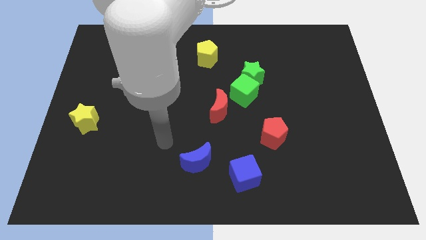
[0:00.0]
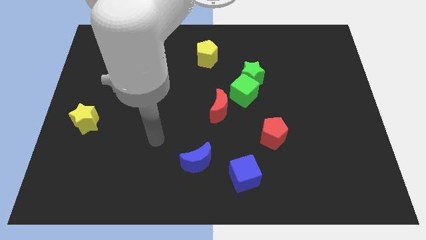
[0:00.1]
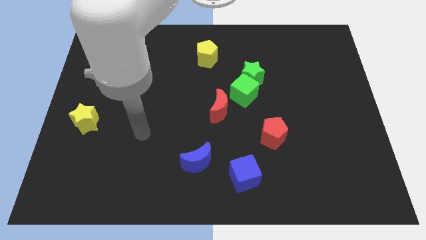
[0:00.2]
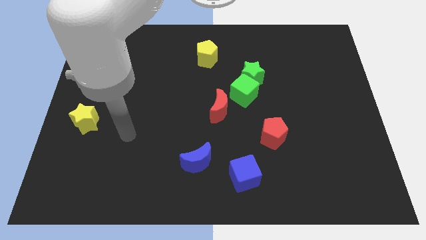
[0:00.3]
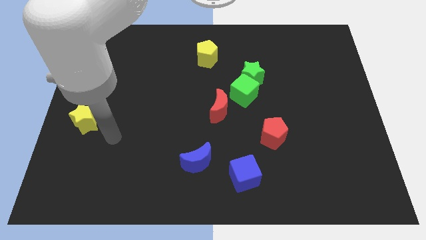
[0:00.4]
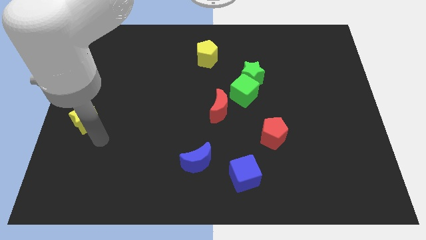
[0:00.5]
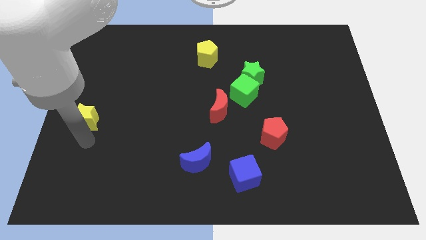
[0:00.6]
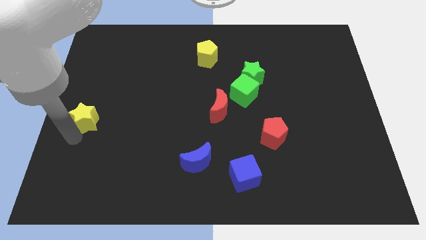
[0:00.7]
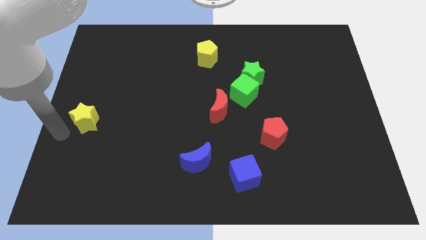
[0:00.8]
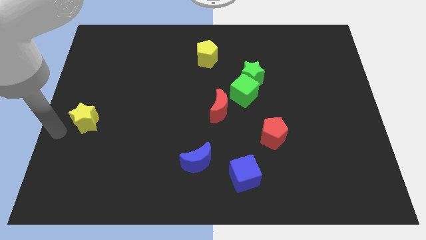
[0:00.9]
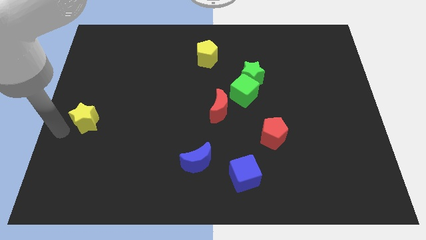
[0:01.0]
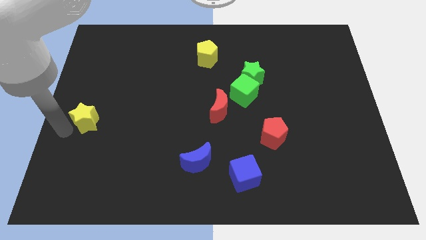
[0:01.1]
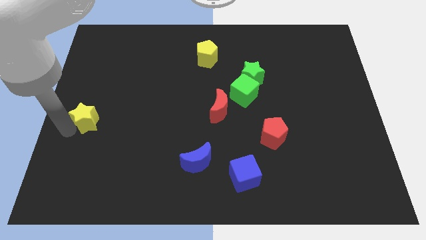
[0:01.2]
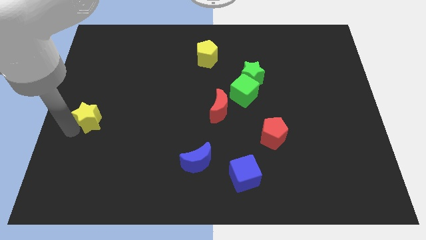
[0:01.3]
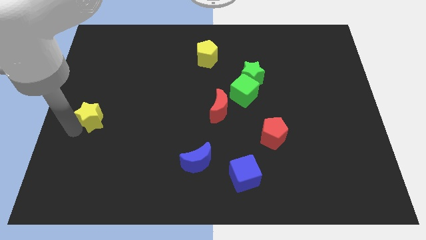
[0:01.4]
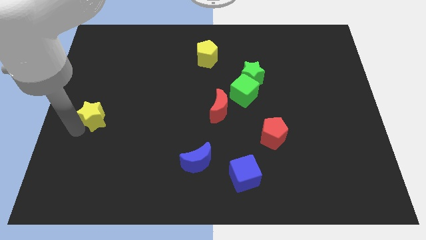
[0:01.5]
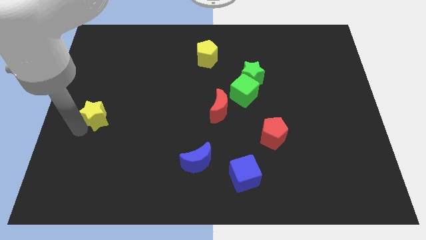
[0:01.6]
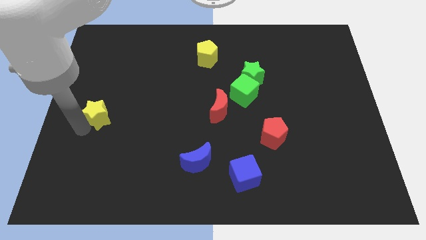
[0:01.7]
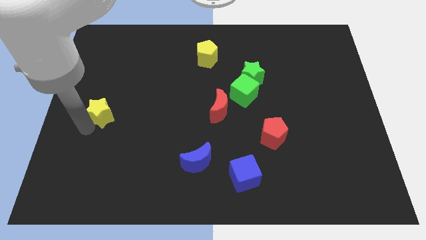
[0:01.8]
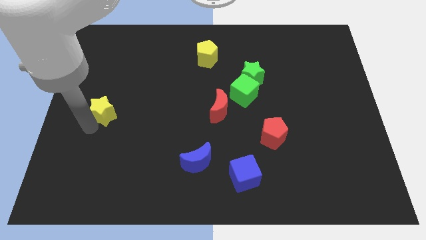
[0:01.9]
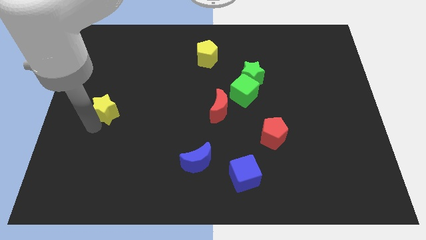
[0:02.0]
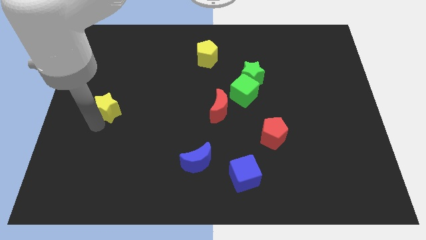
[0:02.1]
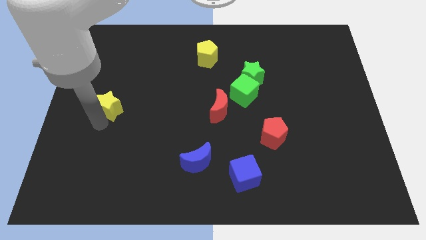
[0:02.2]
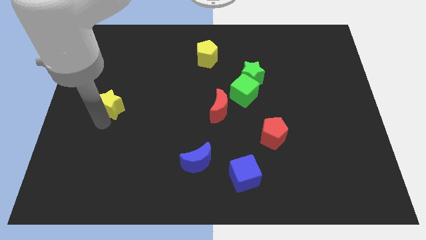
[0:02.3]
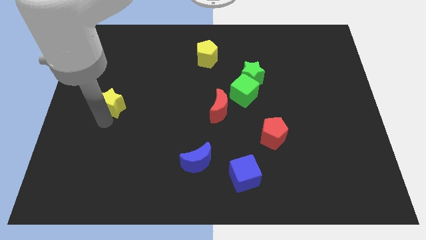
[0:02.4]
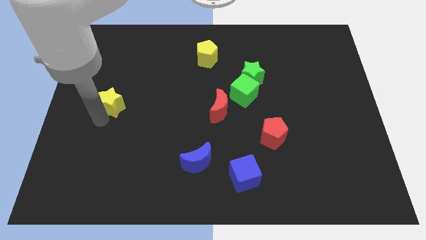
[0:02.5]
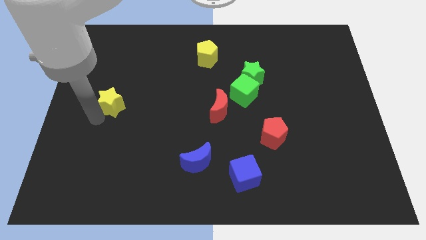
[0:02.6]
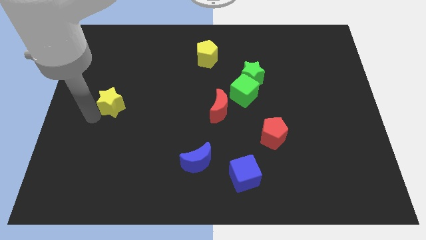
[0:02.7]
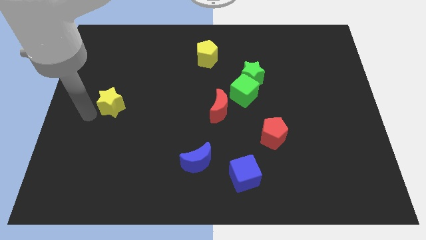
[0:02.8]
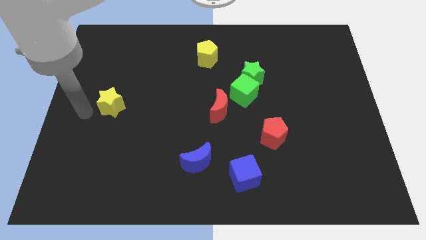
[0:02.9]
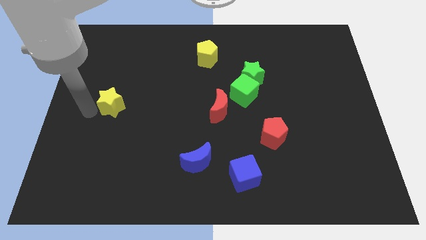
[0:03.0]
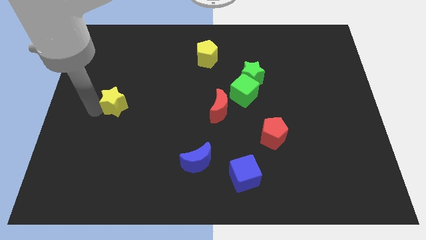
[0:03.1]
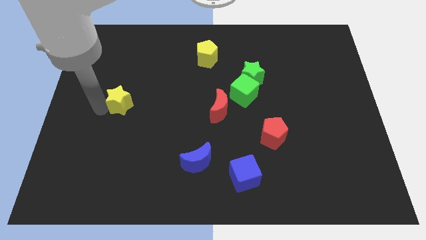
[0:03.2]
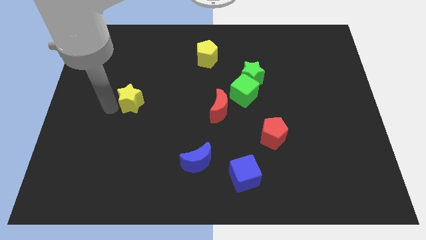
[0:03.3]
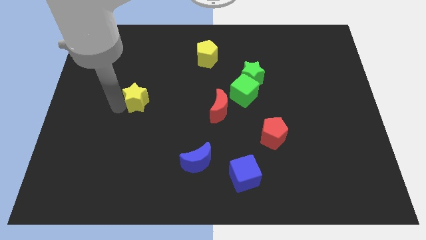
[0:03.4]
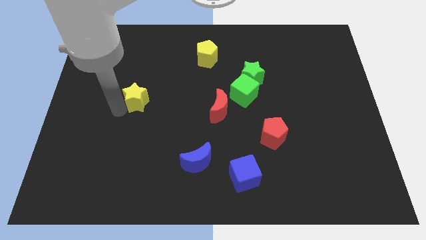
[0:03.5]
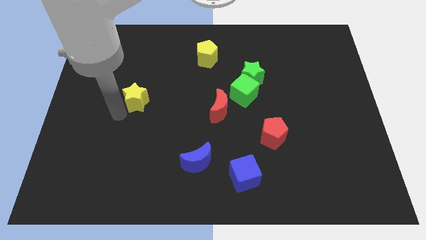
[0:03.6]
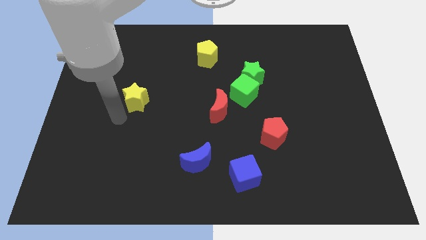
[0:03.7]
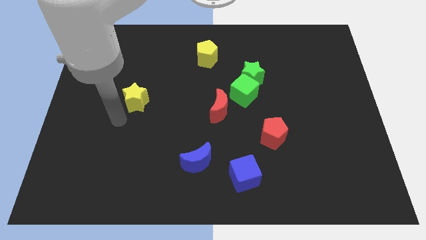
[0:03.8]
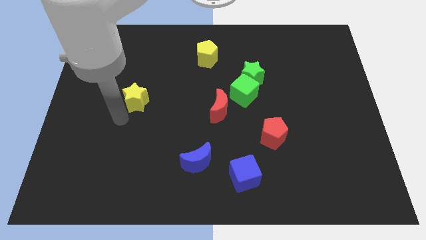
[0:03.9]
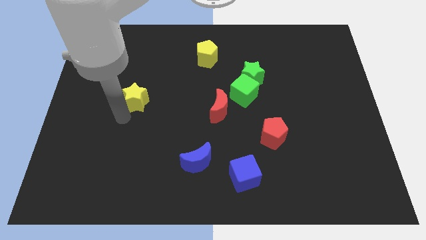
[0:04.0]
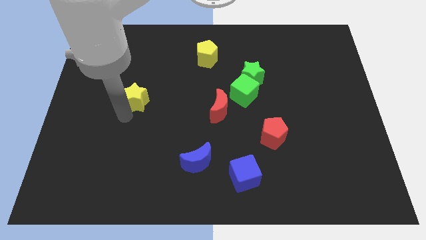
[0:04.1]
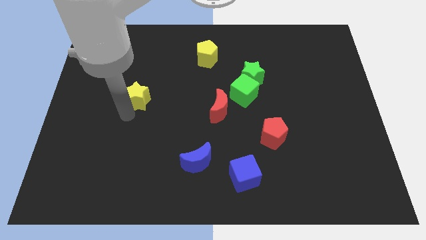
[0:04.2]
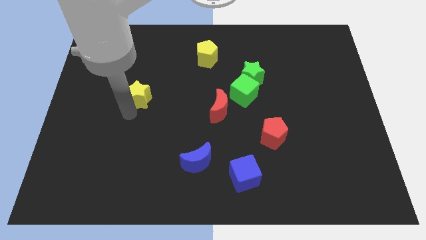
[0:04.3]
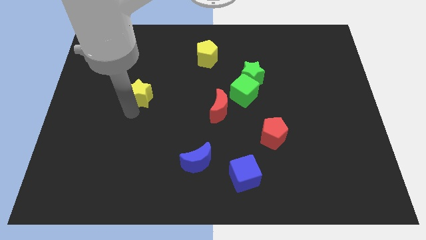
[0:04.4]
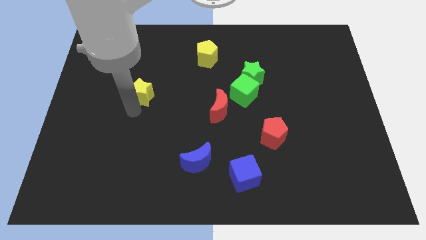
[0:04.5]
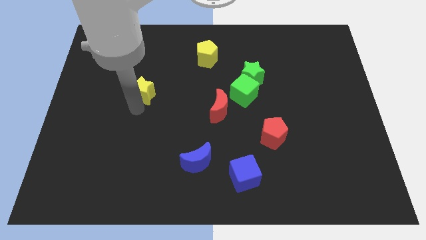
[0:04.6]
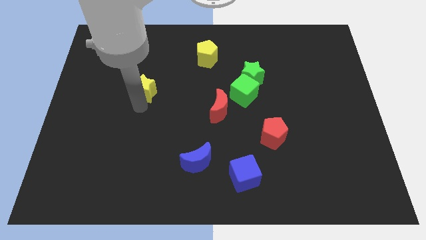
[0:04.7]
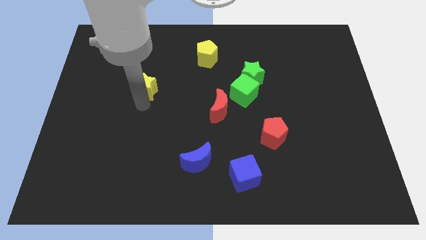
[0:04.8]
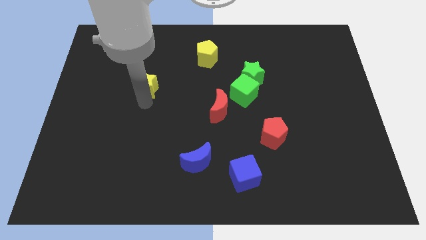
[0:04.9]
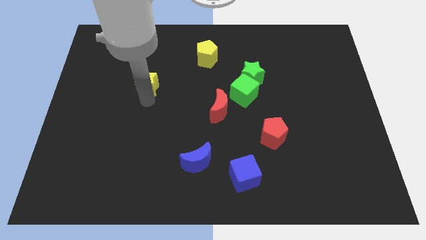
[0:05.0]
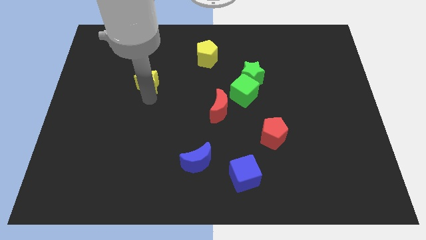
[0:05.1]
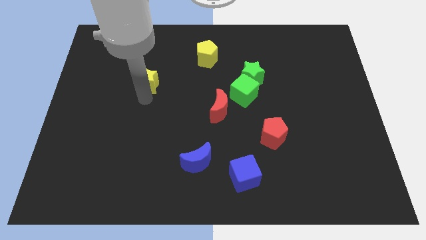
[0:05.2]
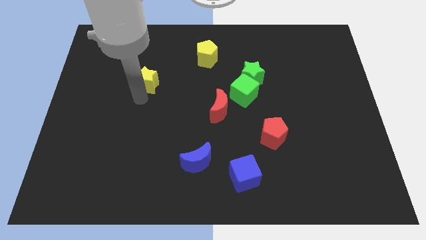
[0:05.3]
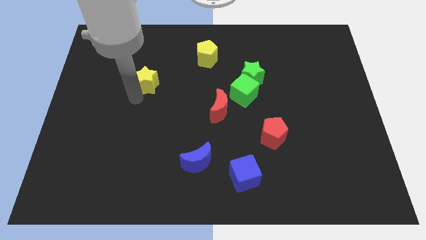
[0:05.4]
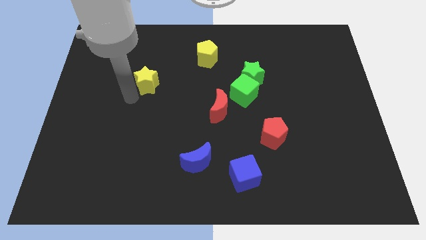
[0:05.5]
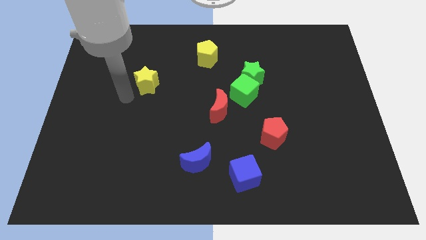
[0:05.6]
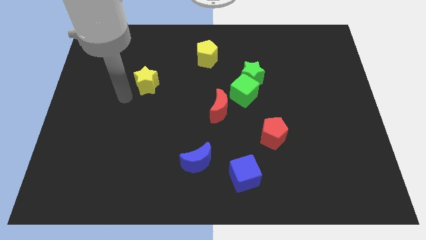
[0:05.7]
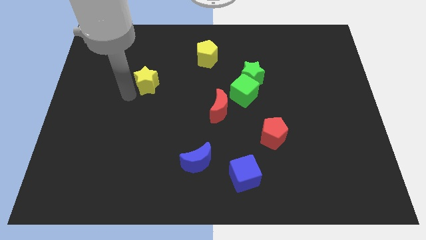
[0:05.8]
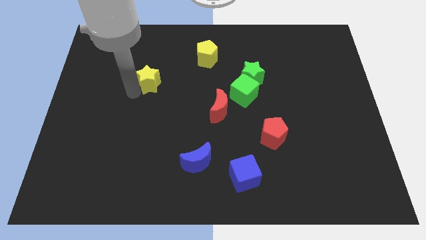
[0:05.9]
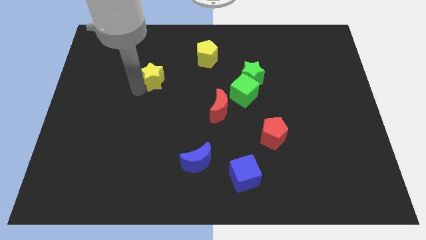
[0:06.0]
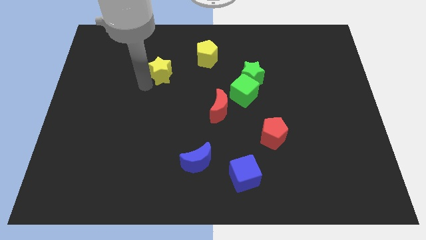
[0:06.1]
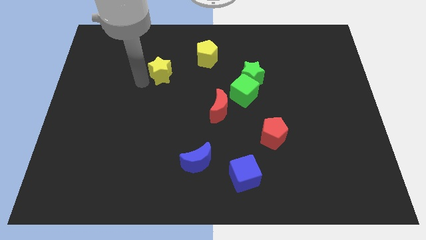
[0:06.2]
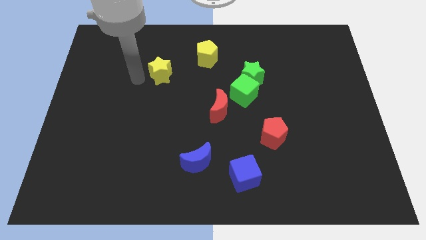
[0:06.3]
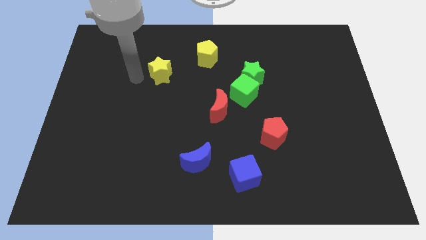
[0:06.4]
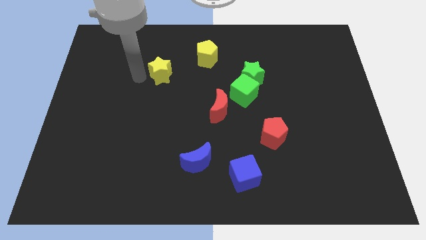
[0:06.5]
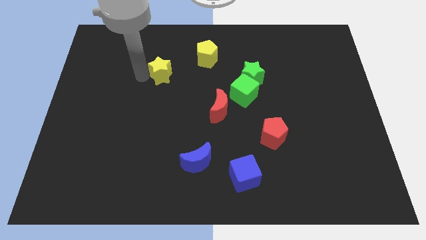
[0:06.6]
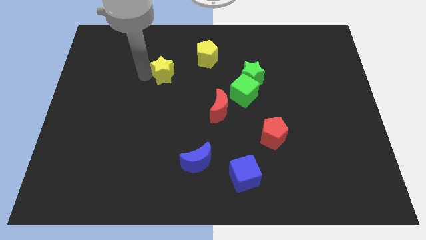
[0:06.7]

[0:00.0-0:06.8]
push the yellow star to the bottom left side of the yellow pentagon

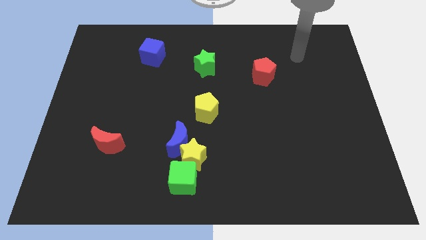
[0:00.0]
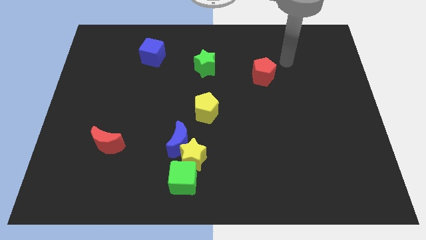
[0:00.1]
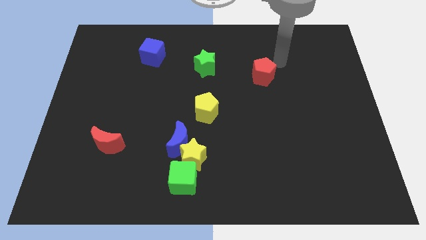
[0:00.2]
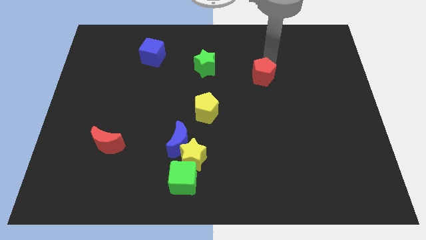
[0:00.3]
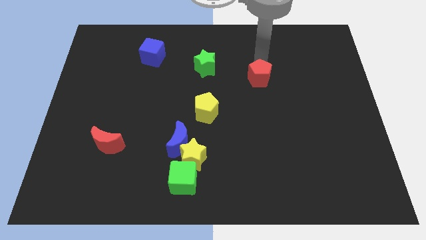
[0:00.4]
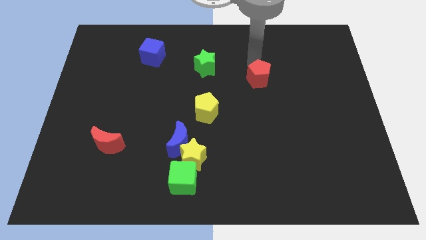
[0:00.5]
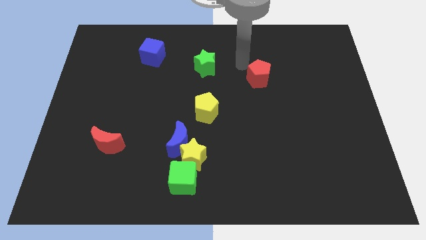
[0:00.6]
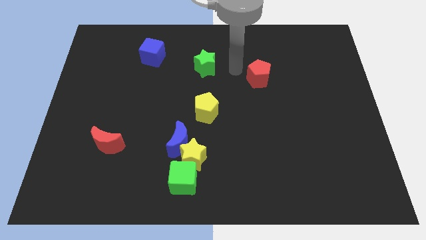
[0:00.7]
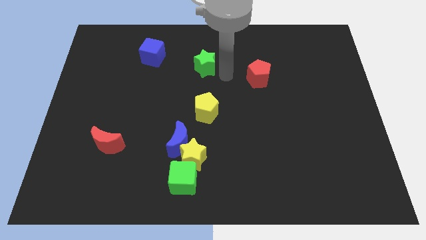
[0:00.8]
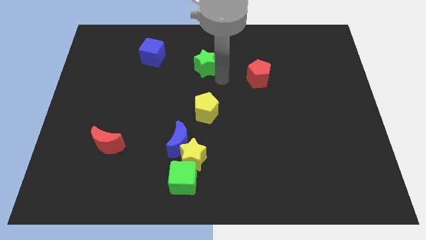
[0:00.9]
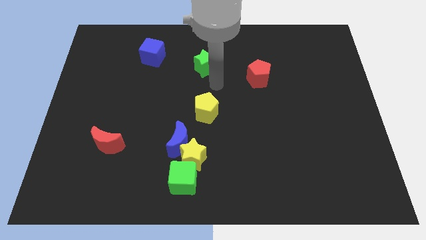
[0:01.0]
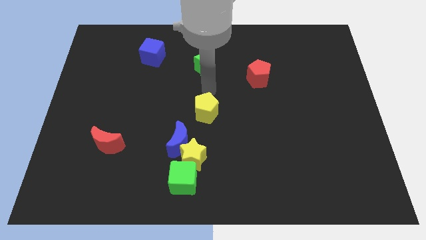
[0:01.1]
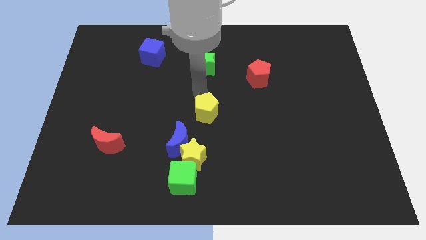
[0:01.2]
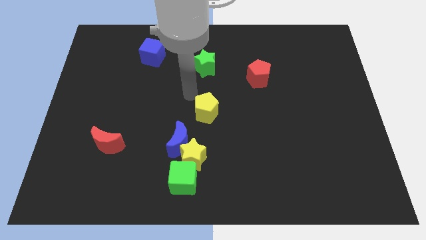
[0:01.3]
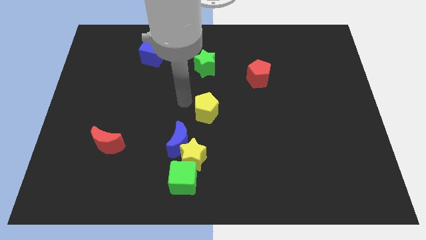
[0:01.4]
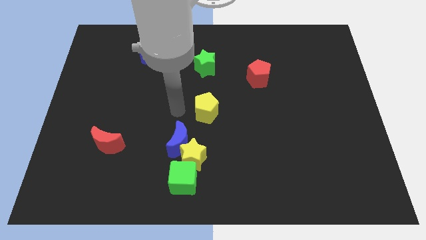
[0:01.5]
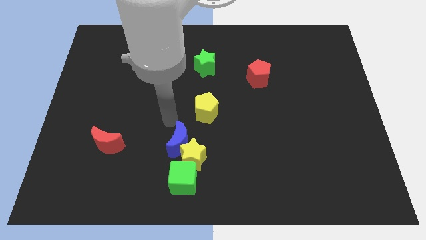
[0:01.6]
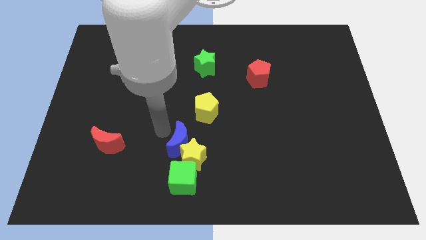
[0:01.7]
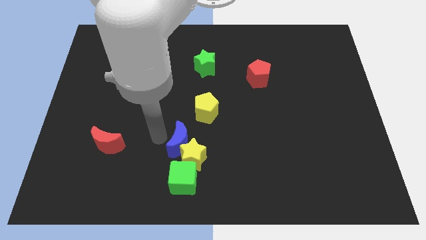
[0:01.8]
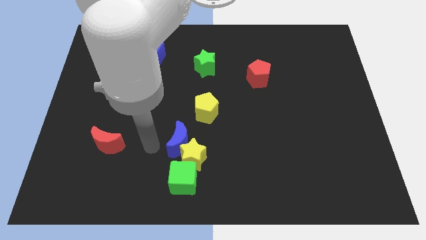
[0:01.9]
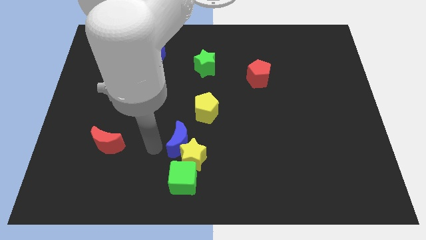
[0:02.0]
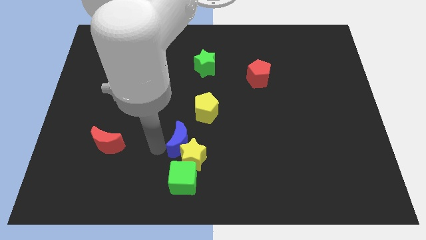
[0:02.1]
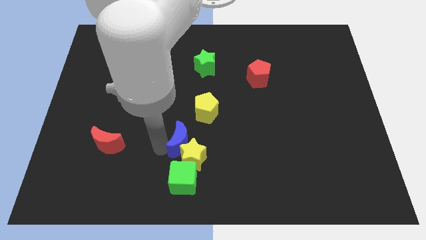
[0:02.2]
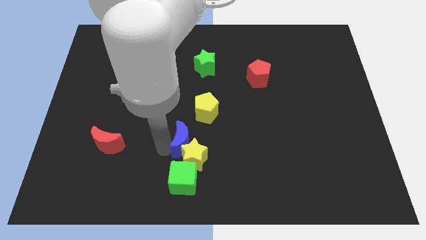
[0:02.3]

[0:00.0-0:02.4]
put the blue moon below the yellow pentagon
